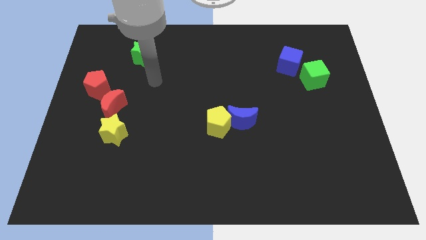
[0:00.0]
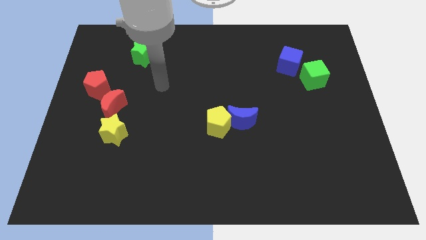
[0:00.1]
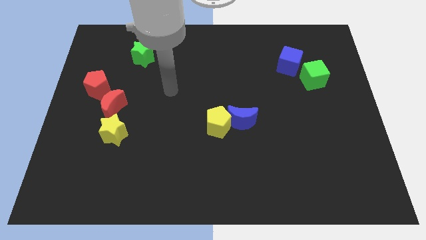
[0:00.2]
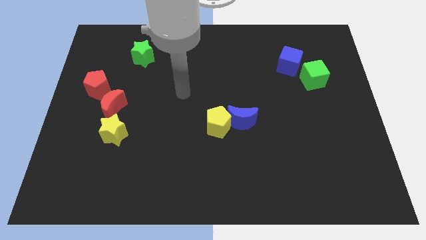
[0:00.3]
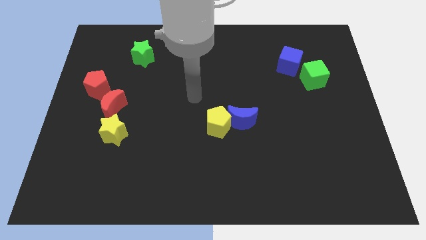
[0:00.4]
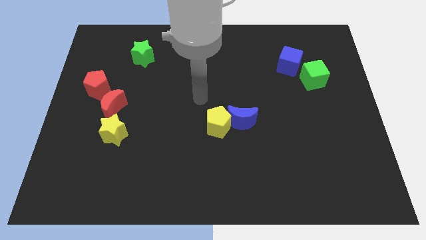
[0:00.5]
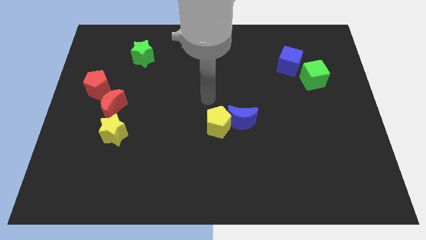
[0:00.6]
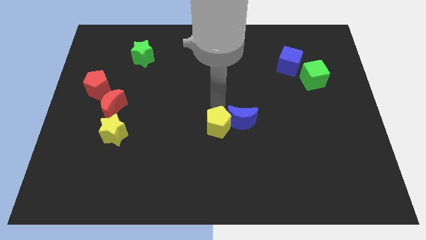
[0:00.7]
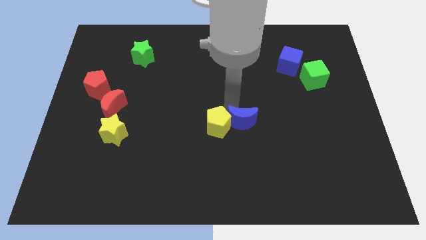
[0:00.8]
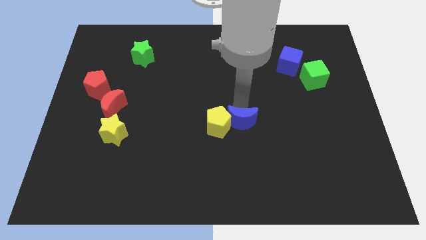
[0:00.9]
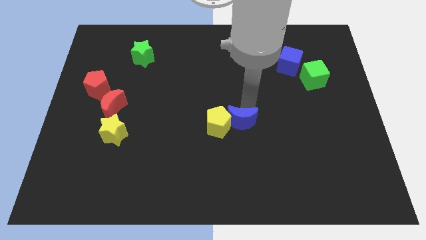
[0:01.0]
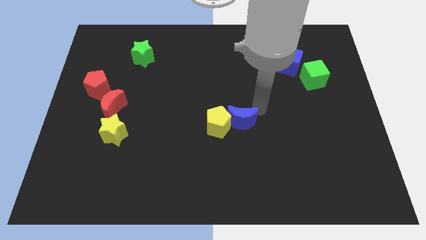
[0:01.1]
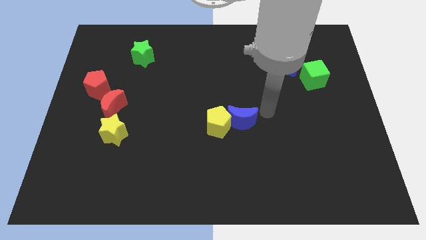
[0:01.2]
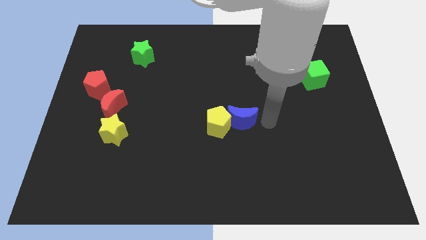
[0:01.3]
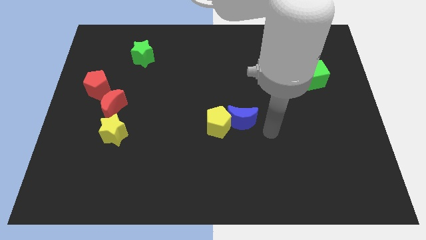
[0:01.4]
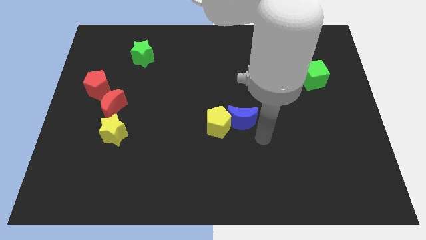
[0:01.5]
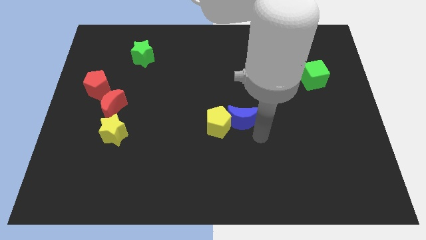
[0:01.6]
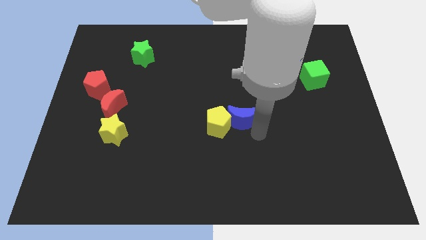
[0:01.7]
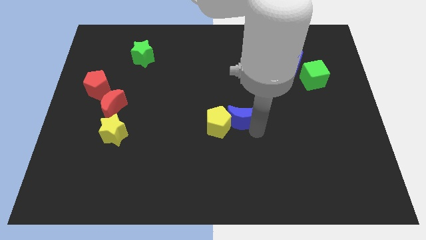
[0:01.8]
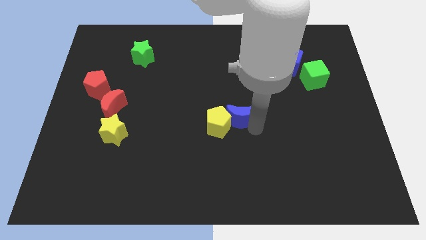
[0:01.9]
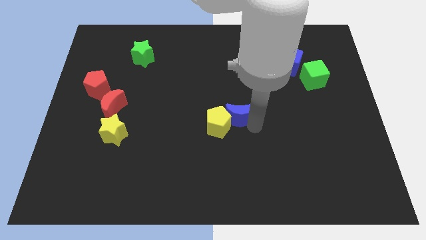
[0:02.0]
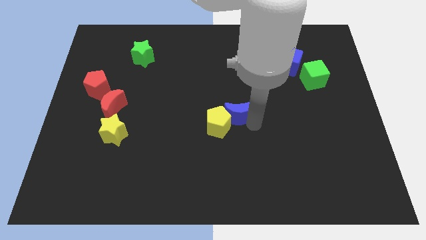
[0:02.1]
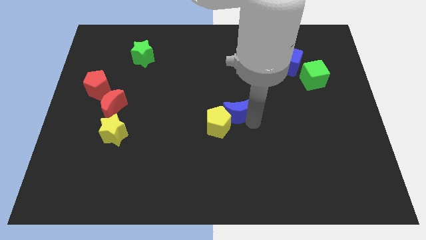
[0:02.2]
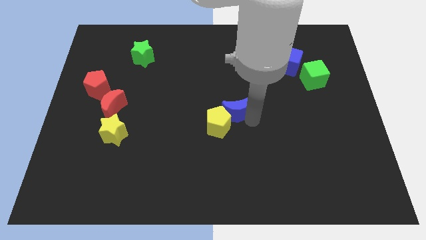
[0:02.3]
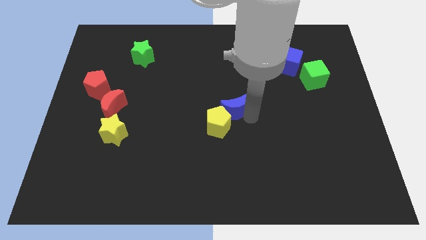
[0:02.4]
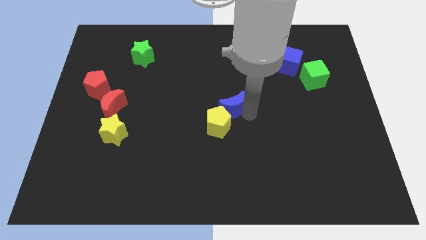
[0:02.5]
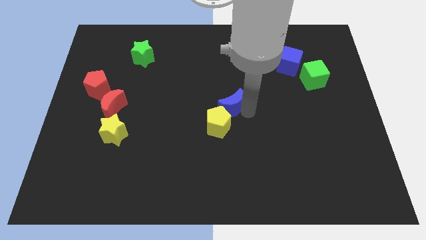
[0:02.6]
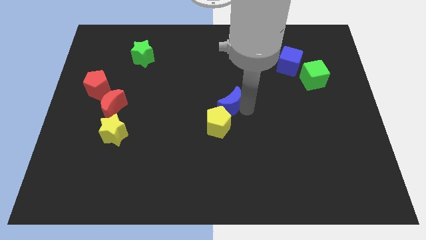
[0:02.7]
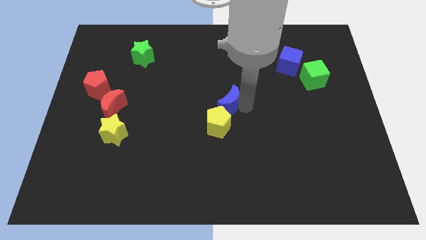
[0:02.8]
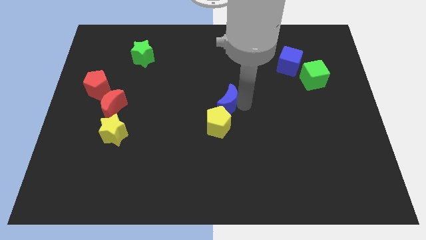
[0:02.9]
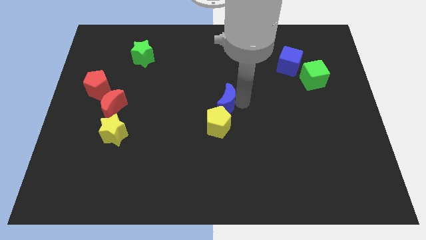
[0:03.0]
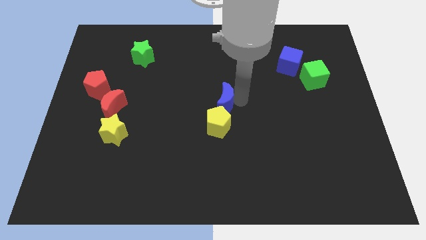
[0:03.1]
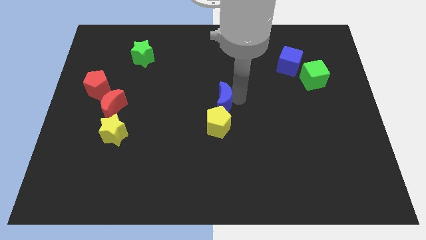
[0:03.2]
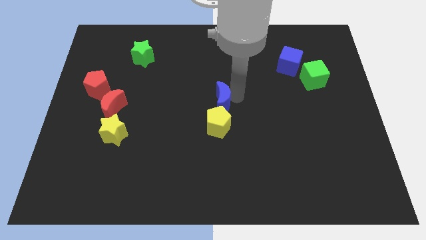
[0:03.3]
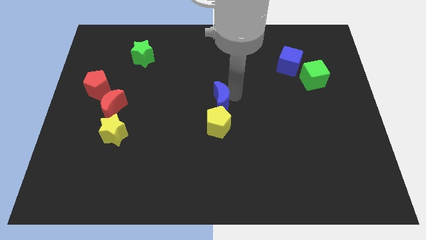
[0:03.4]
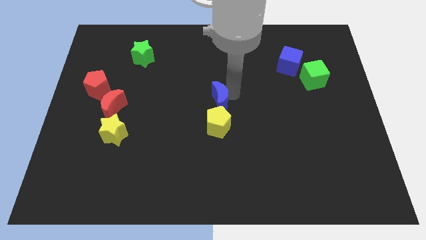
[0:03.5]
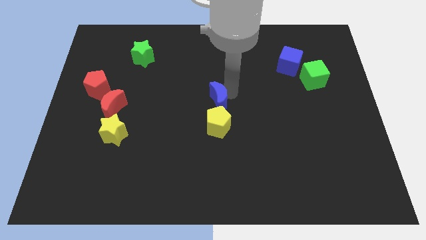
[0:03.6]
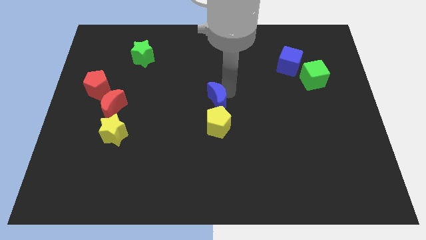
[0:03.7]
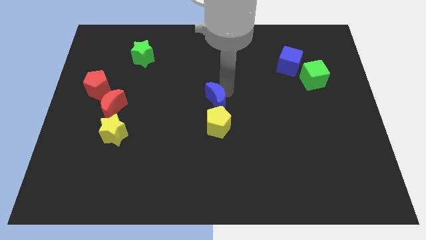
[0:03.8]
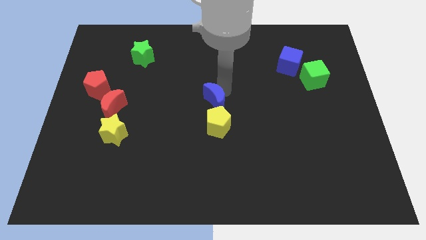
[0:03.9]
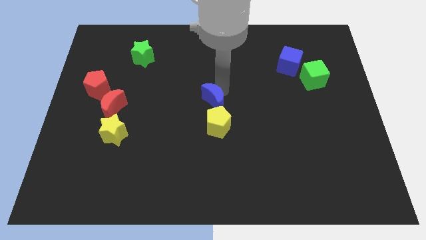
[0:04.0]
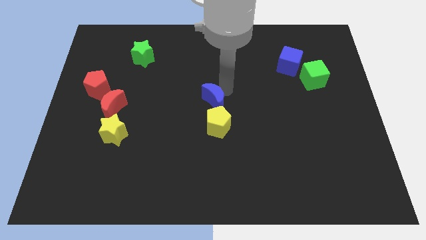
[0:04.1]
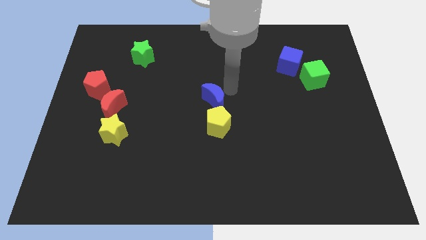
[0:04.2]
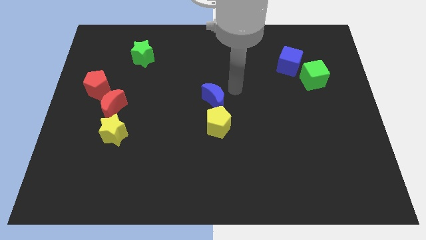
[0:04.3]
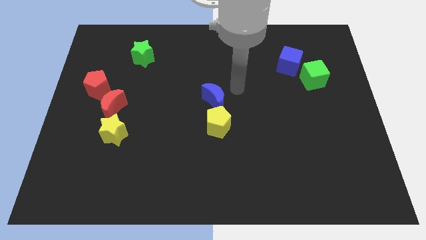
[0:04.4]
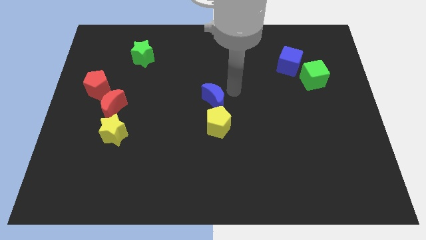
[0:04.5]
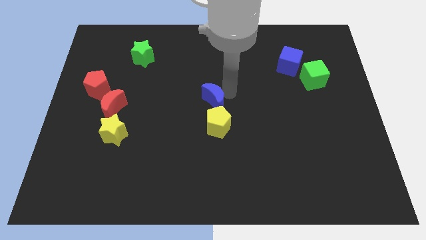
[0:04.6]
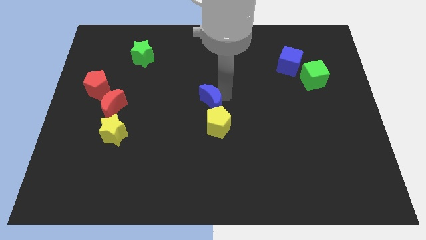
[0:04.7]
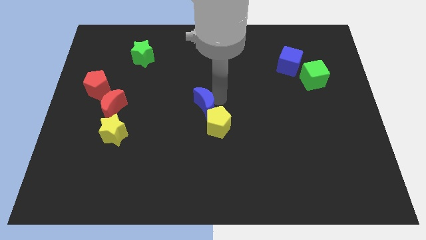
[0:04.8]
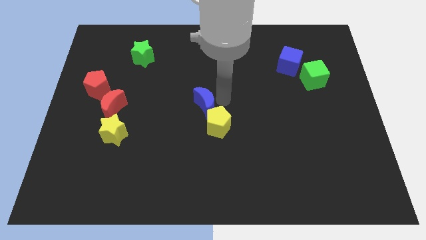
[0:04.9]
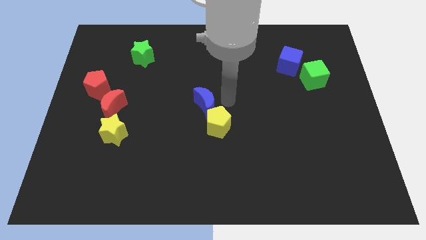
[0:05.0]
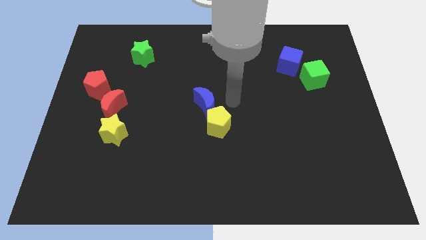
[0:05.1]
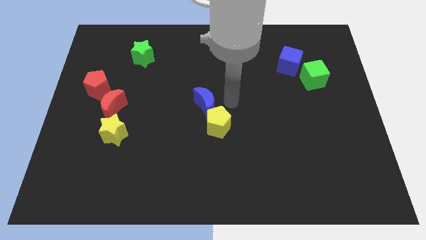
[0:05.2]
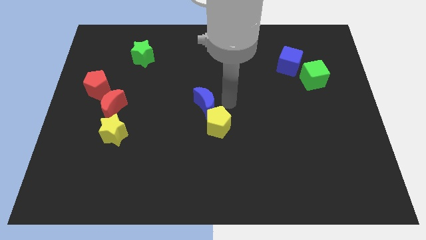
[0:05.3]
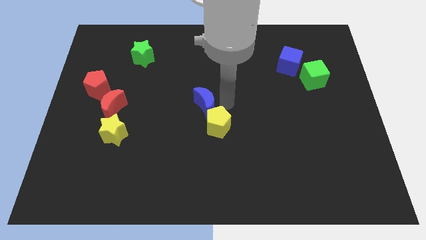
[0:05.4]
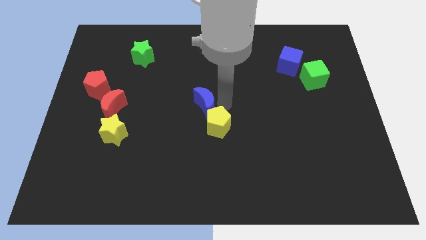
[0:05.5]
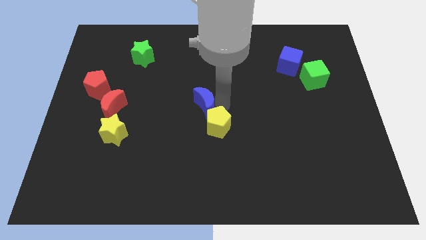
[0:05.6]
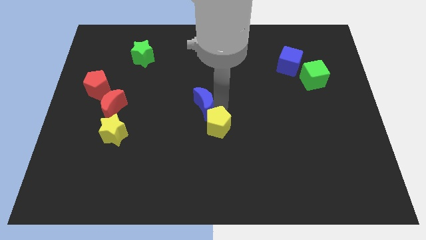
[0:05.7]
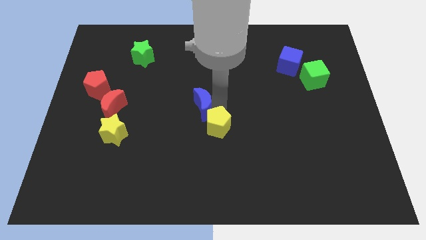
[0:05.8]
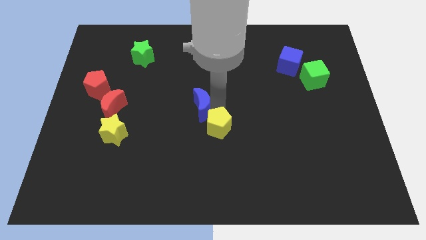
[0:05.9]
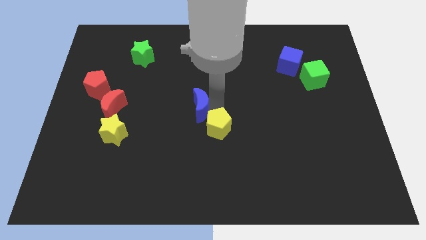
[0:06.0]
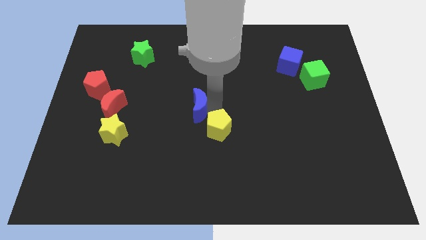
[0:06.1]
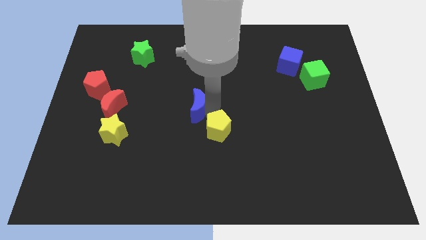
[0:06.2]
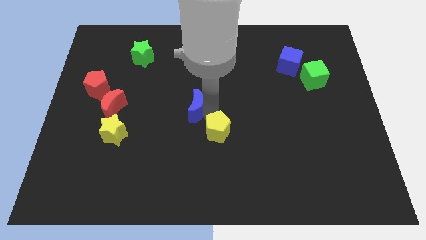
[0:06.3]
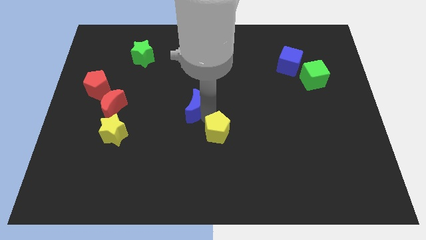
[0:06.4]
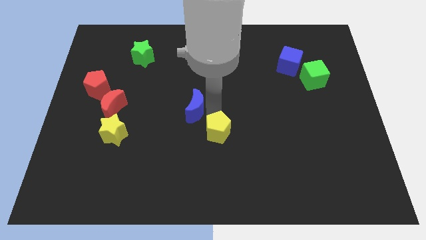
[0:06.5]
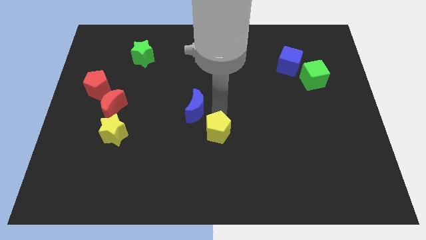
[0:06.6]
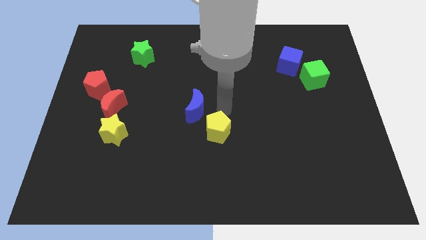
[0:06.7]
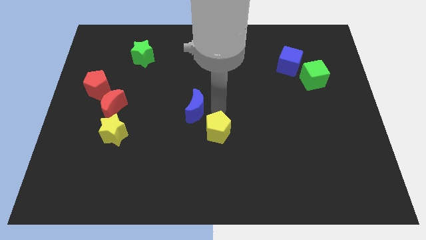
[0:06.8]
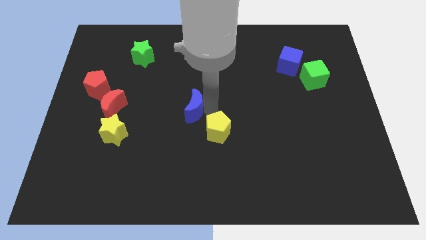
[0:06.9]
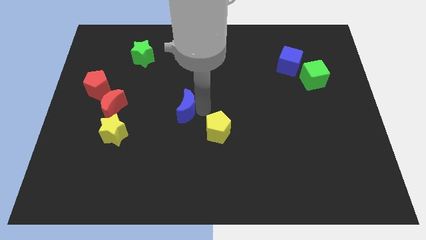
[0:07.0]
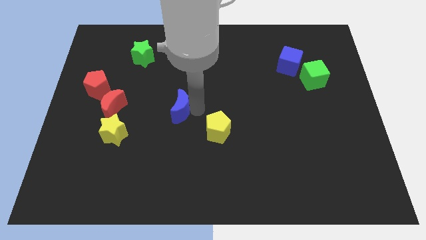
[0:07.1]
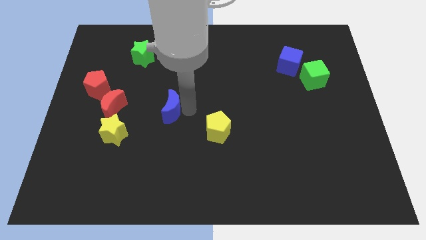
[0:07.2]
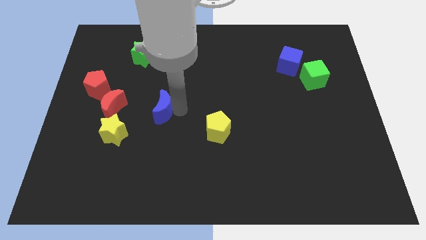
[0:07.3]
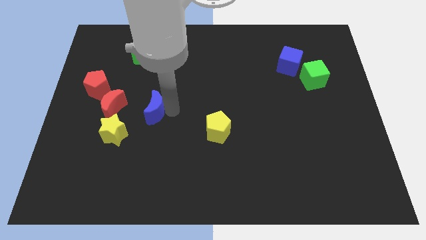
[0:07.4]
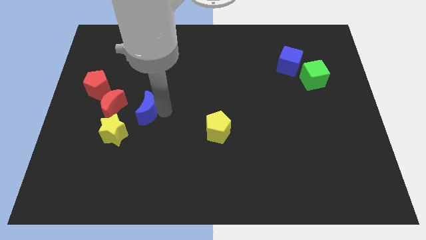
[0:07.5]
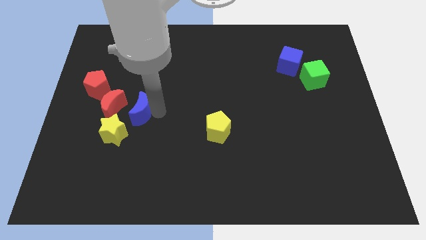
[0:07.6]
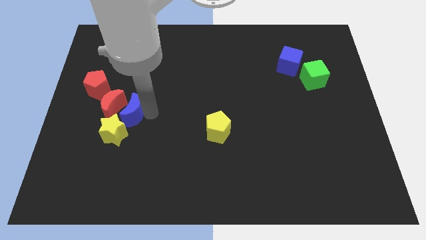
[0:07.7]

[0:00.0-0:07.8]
move the blue moon next to the red moon
